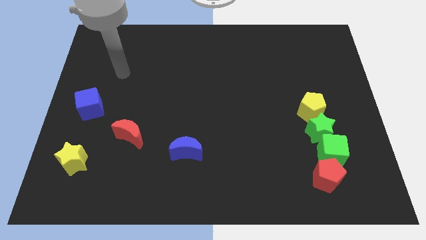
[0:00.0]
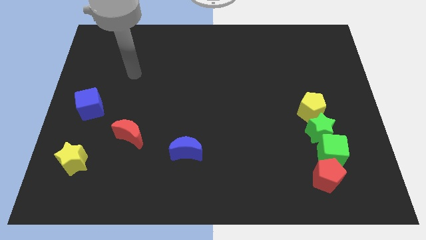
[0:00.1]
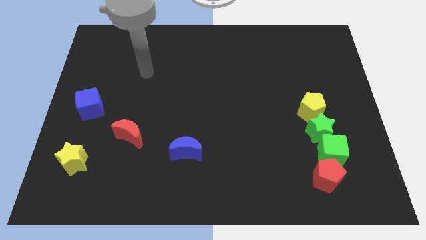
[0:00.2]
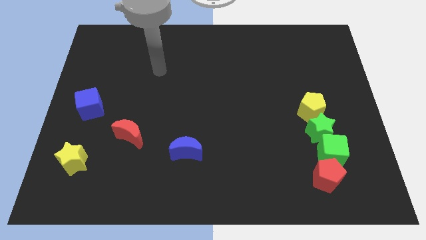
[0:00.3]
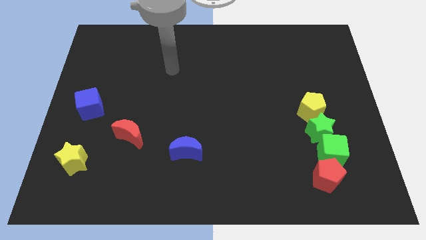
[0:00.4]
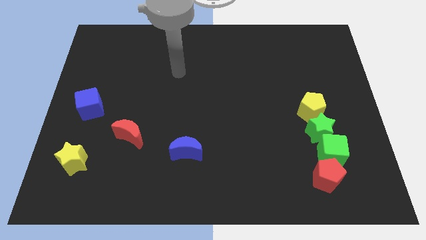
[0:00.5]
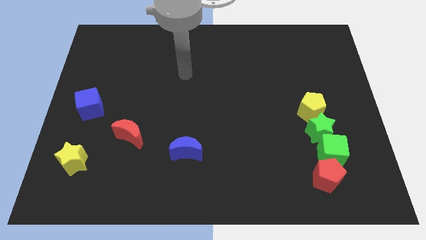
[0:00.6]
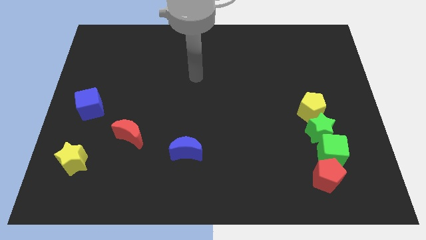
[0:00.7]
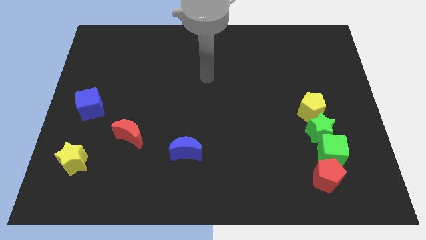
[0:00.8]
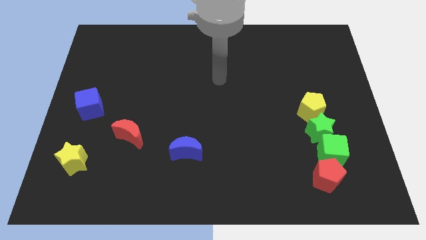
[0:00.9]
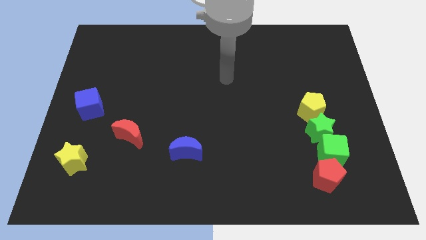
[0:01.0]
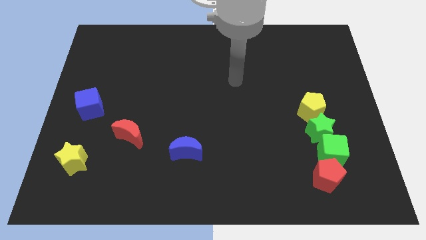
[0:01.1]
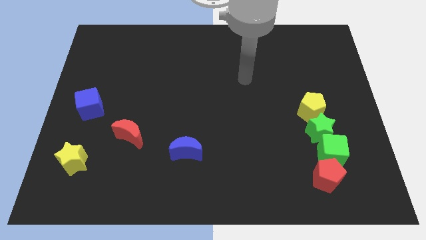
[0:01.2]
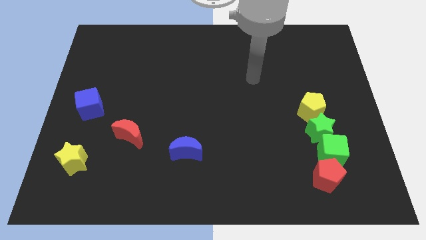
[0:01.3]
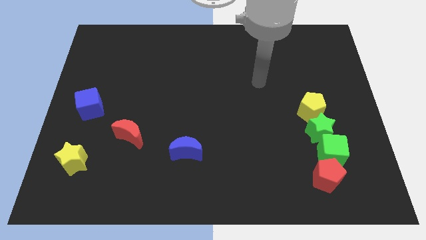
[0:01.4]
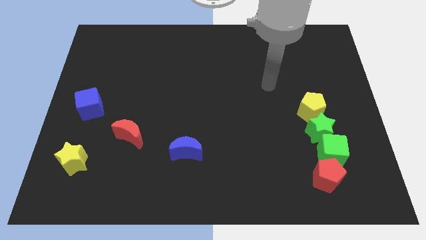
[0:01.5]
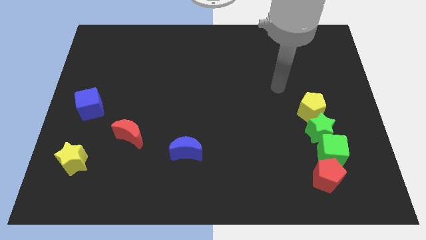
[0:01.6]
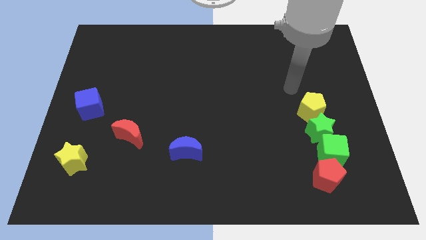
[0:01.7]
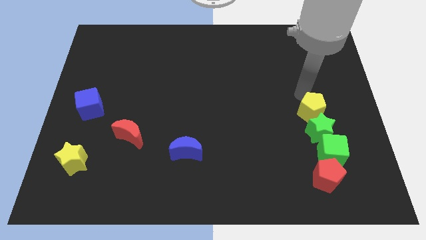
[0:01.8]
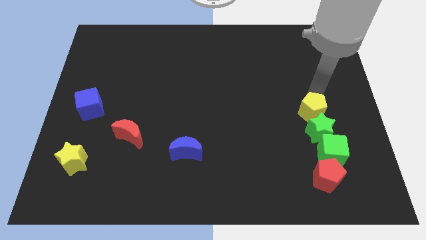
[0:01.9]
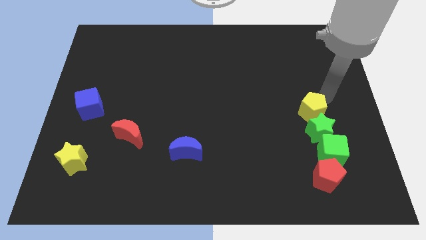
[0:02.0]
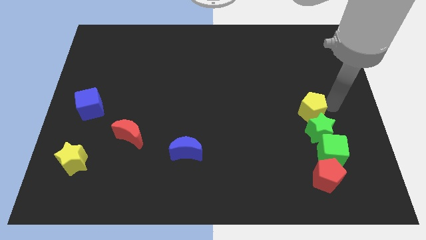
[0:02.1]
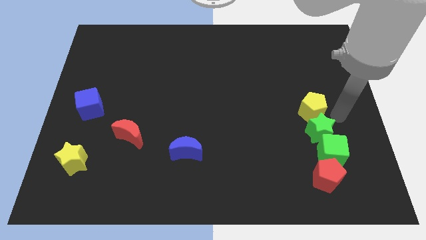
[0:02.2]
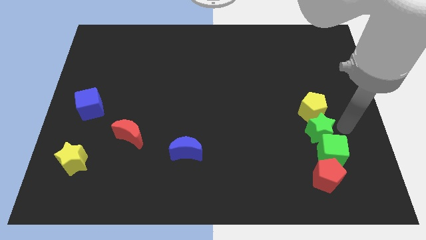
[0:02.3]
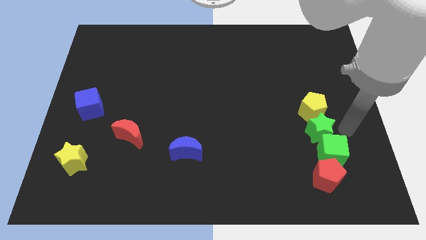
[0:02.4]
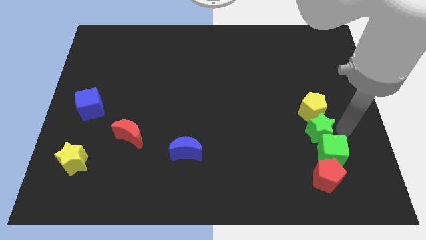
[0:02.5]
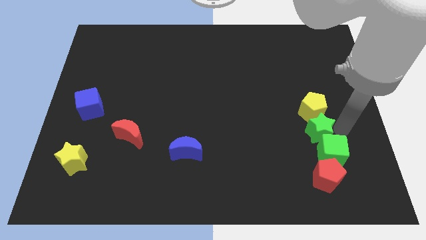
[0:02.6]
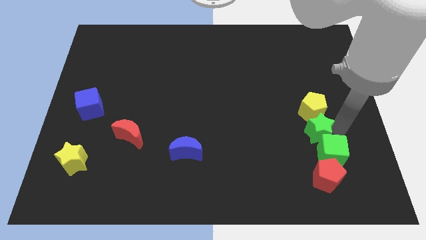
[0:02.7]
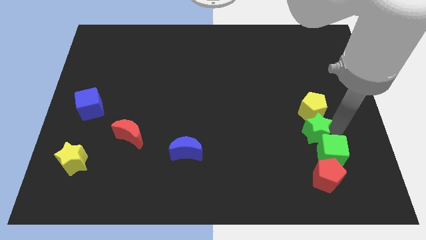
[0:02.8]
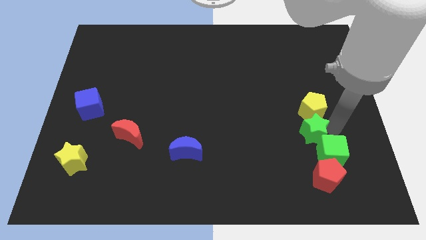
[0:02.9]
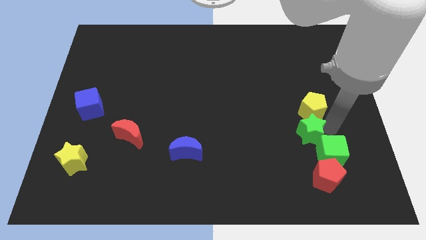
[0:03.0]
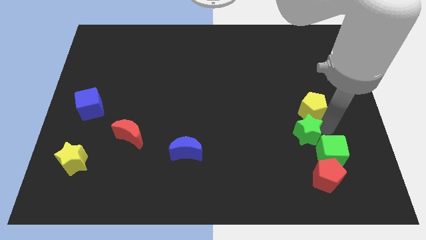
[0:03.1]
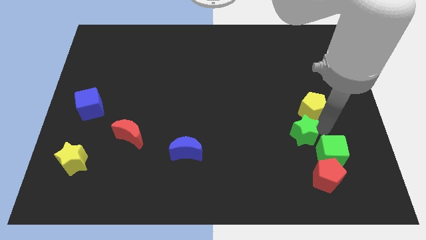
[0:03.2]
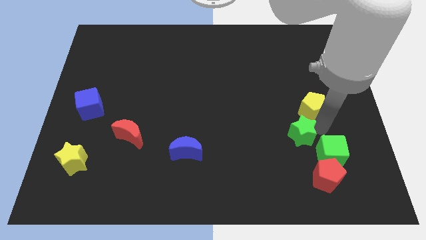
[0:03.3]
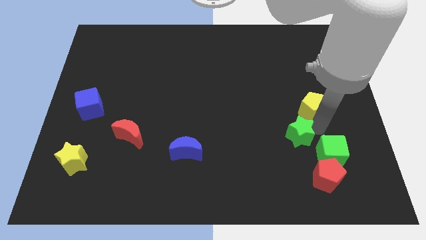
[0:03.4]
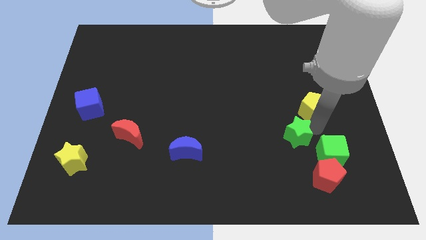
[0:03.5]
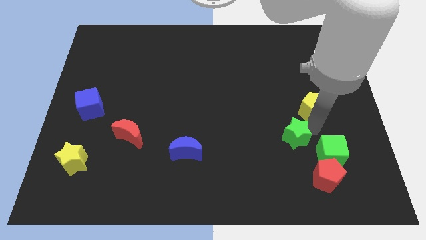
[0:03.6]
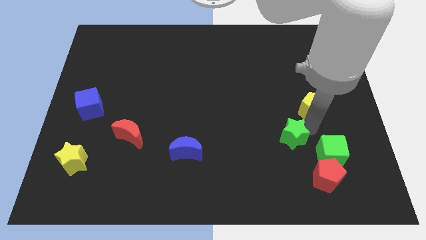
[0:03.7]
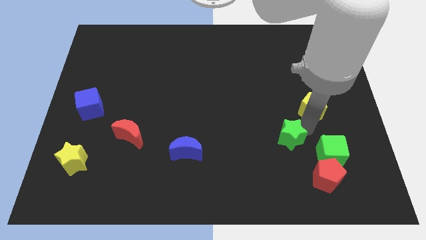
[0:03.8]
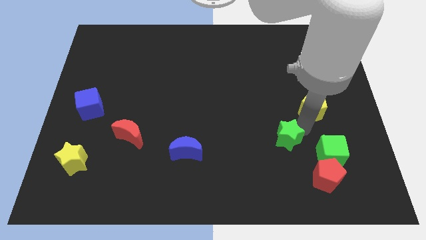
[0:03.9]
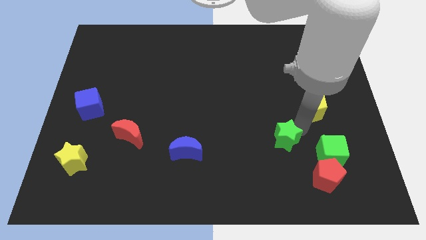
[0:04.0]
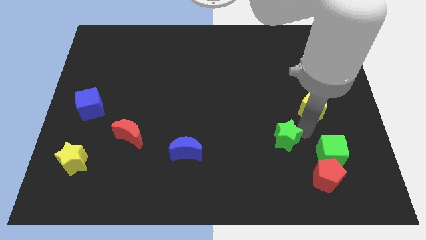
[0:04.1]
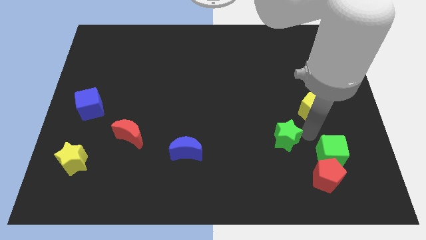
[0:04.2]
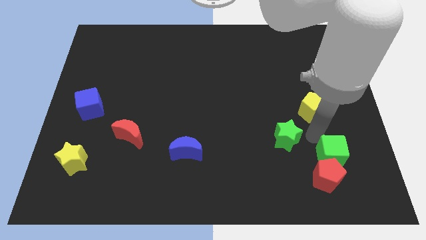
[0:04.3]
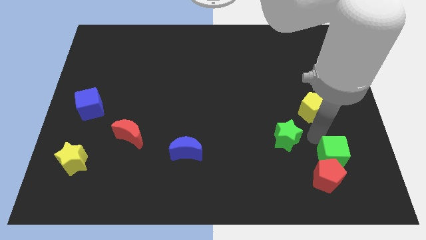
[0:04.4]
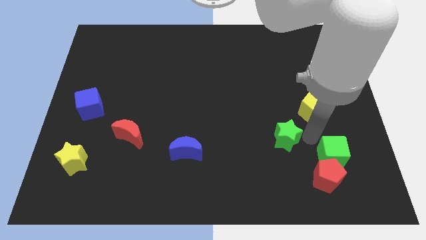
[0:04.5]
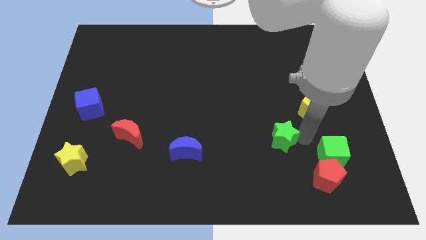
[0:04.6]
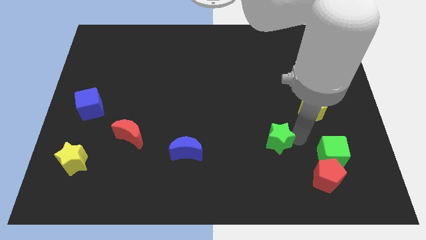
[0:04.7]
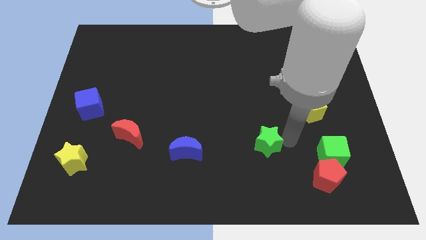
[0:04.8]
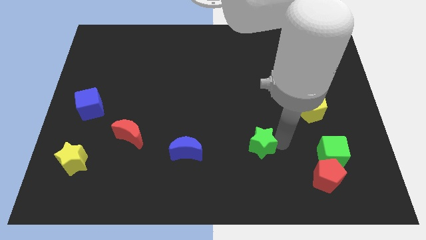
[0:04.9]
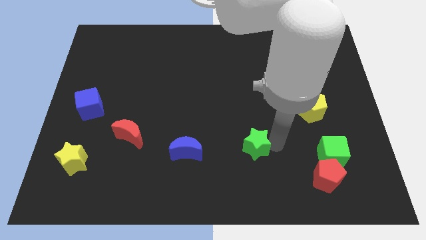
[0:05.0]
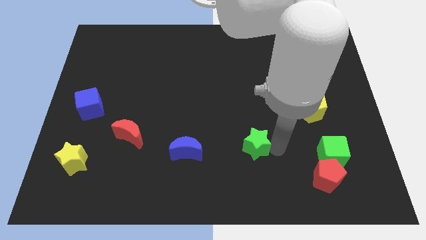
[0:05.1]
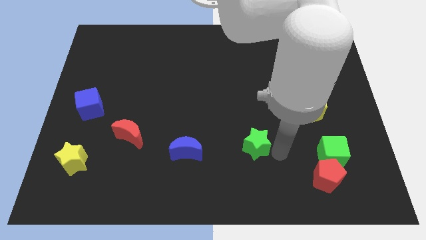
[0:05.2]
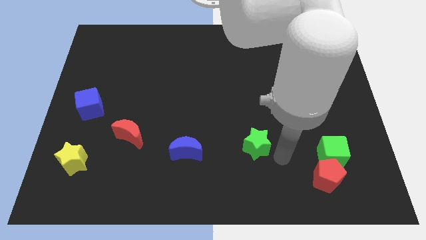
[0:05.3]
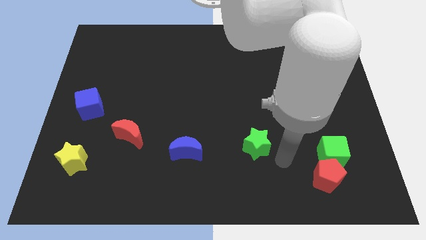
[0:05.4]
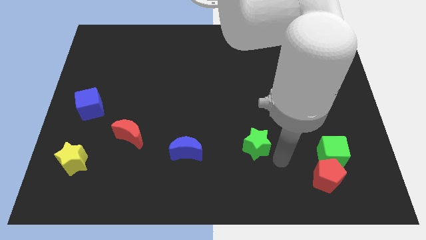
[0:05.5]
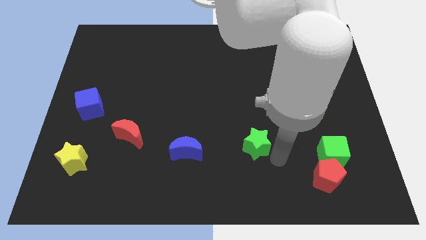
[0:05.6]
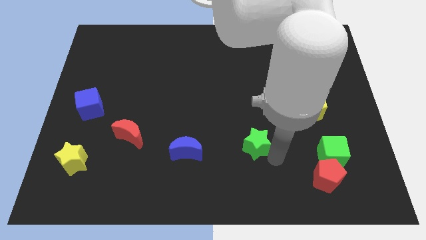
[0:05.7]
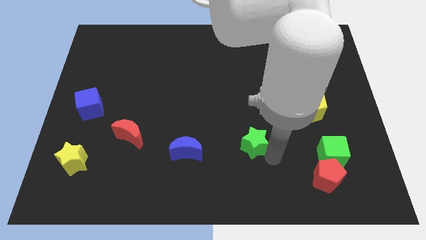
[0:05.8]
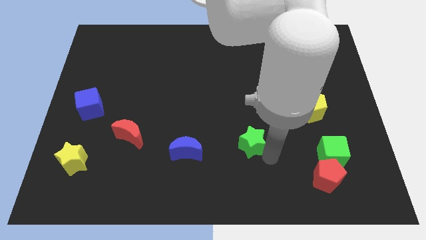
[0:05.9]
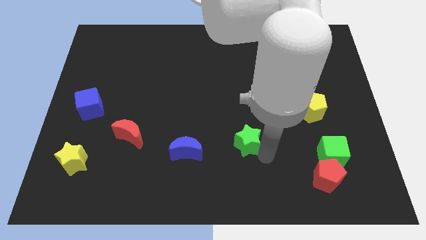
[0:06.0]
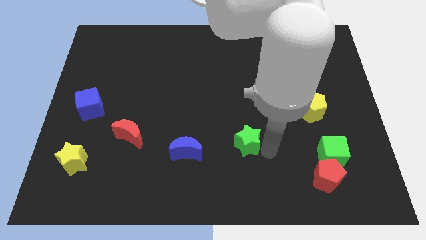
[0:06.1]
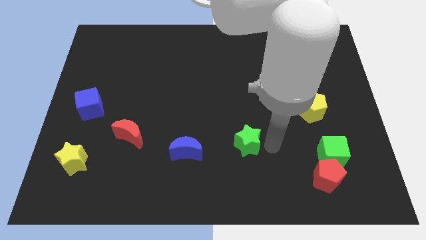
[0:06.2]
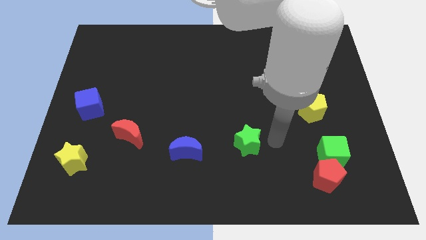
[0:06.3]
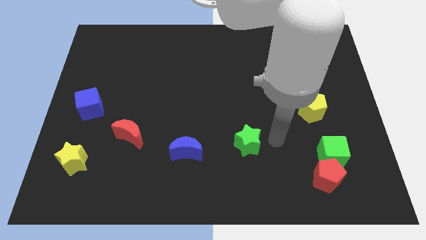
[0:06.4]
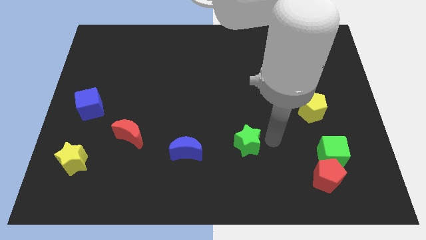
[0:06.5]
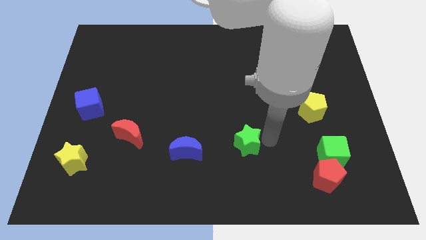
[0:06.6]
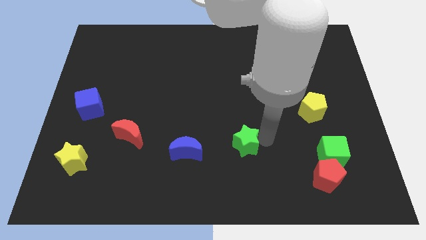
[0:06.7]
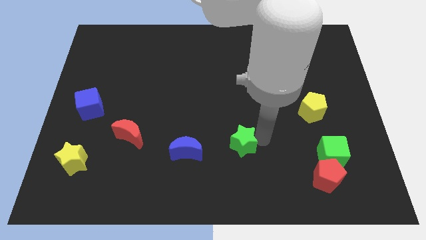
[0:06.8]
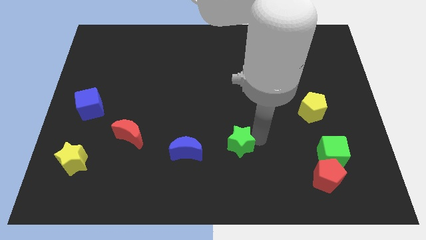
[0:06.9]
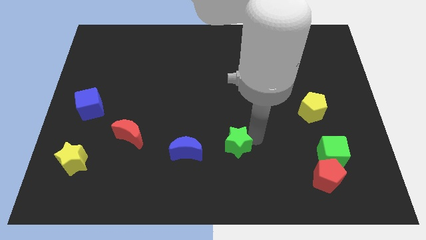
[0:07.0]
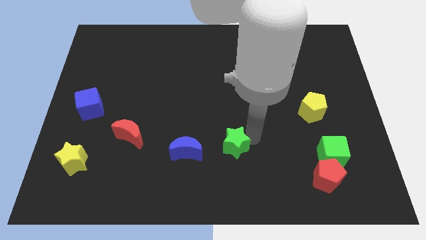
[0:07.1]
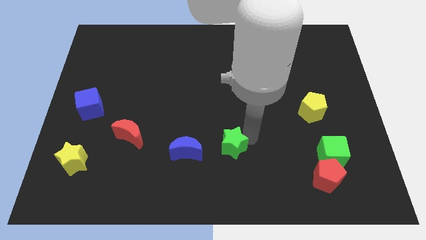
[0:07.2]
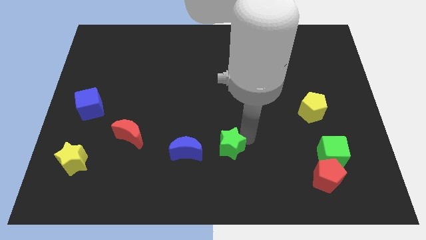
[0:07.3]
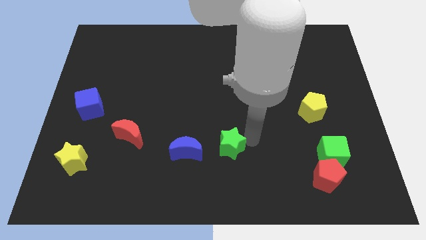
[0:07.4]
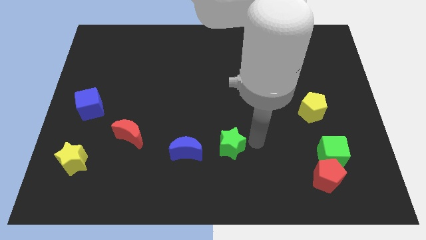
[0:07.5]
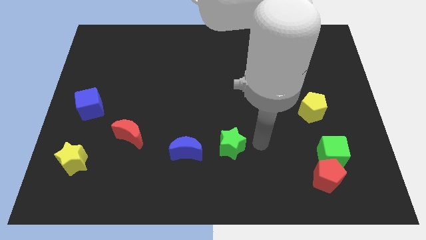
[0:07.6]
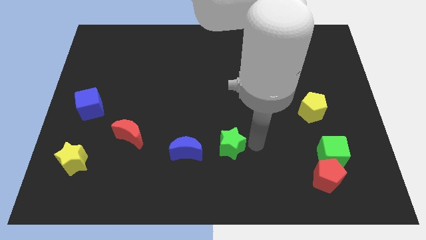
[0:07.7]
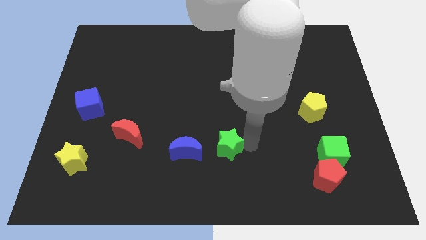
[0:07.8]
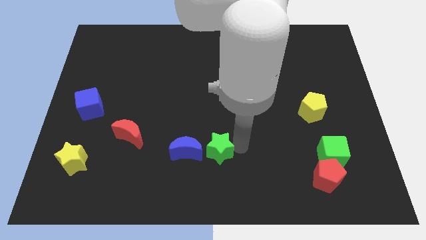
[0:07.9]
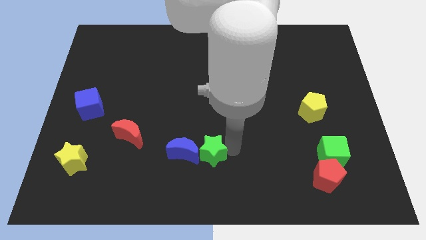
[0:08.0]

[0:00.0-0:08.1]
move the green star to the blue moon
